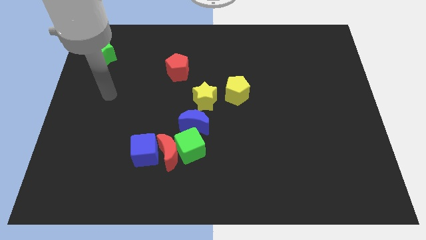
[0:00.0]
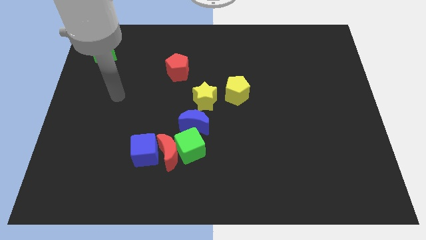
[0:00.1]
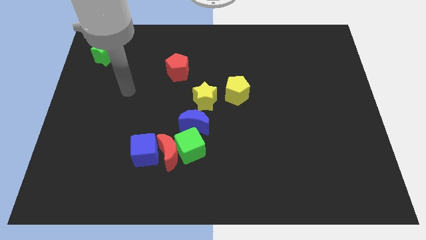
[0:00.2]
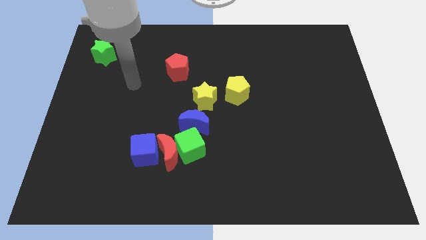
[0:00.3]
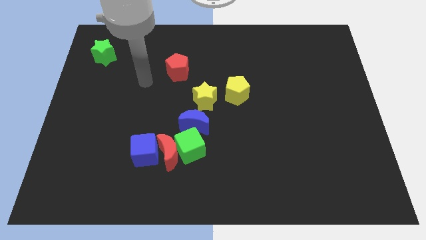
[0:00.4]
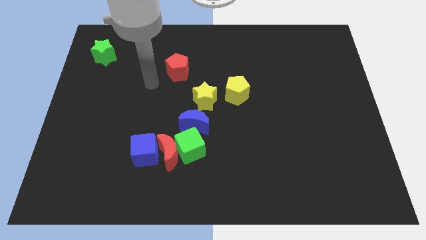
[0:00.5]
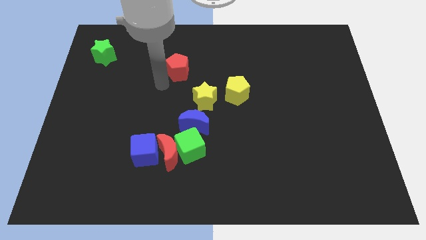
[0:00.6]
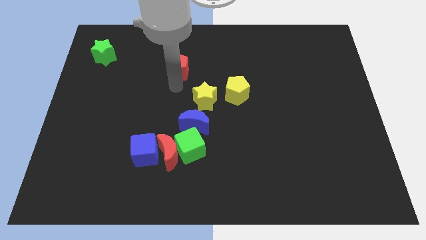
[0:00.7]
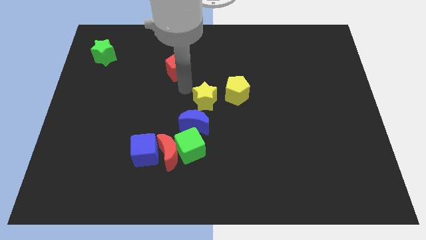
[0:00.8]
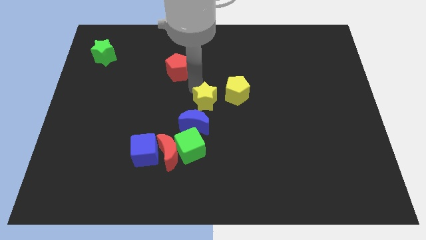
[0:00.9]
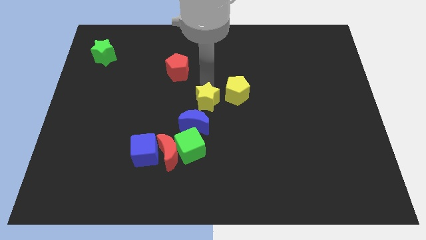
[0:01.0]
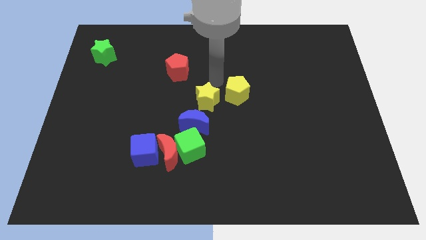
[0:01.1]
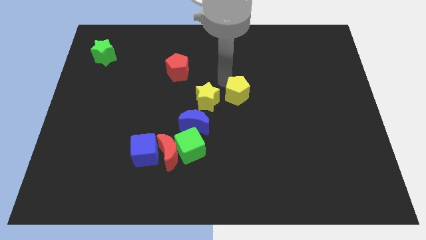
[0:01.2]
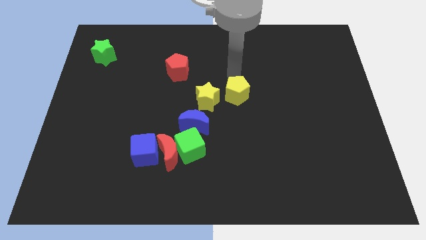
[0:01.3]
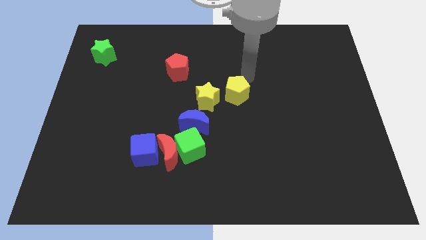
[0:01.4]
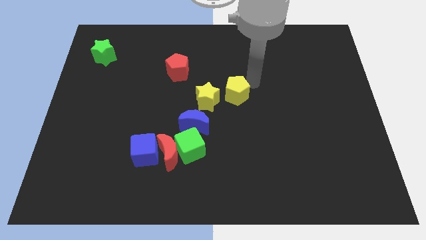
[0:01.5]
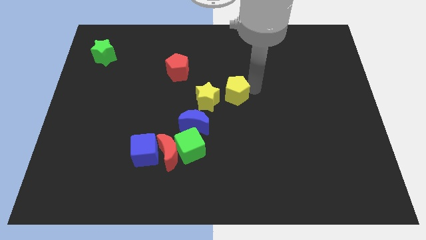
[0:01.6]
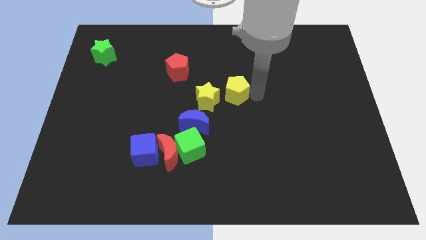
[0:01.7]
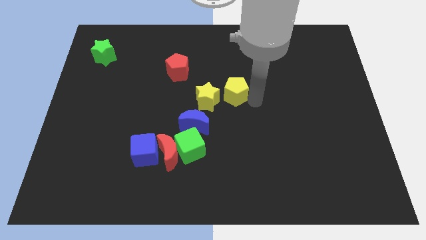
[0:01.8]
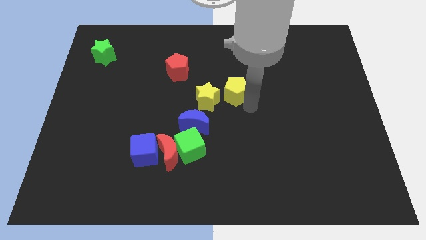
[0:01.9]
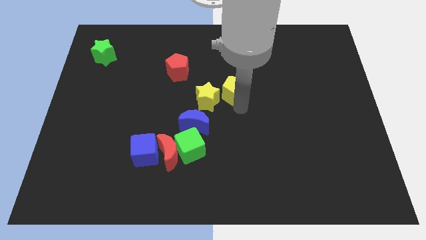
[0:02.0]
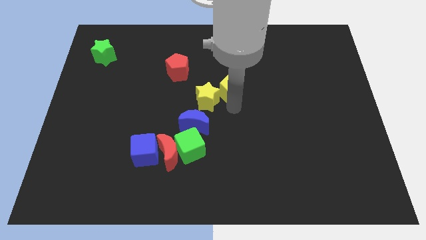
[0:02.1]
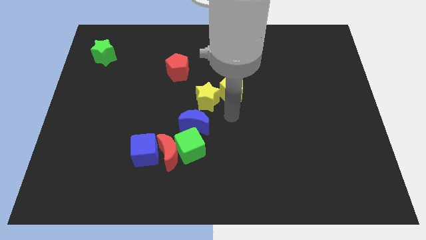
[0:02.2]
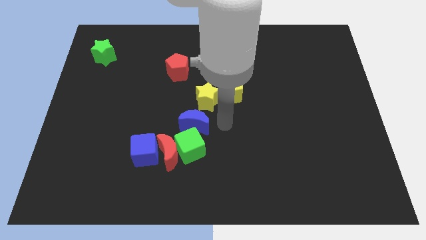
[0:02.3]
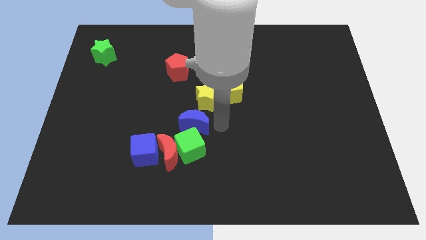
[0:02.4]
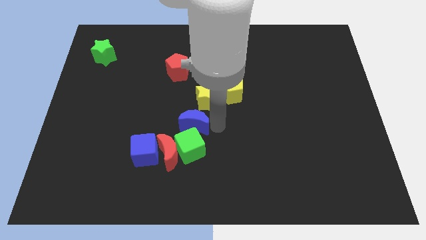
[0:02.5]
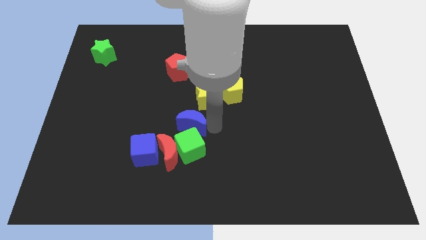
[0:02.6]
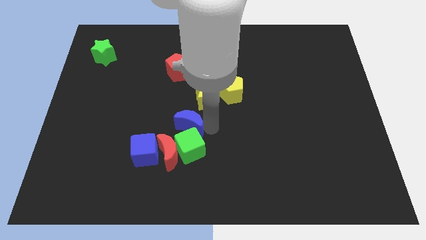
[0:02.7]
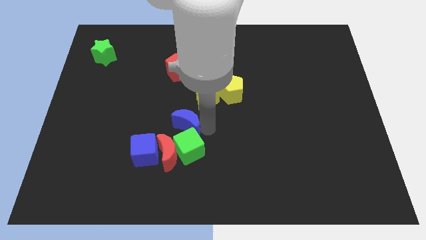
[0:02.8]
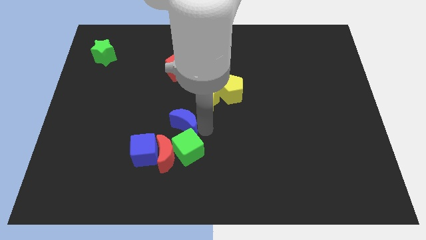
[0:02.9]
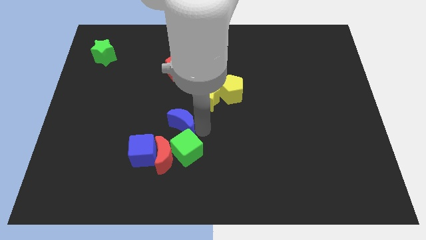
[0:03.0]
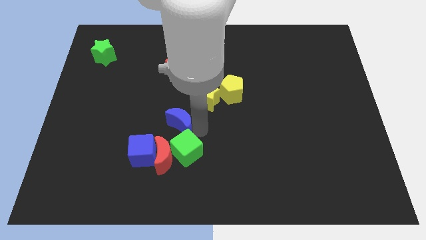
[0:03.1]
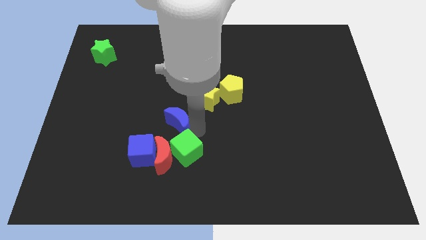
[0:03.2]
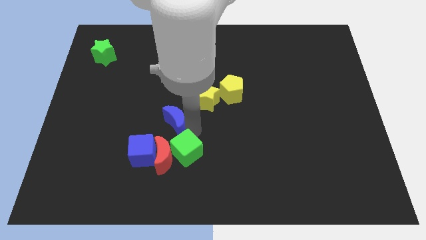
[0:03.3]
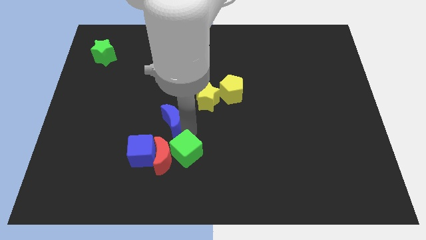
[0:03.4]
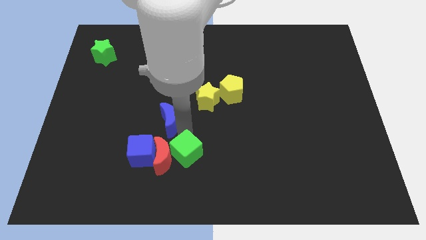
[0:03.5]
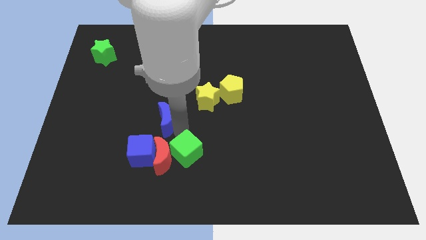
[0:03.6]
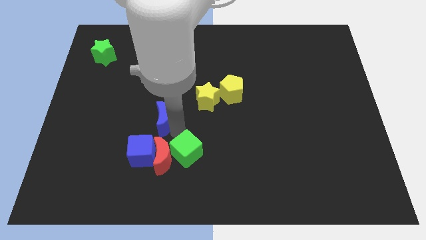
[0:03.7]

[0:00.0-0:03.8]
push the blue moon slightly left

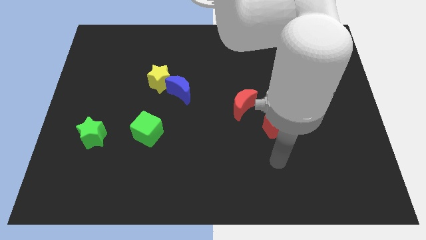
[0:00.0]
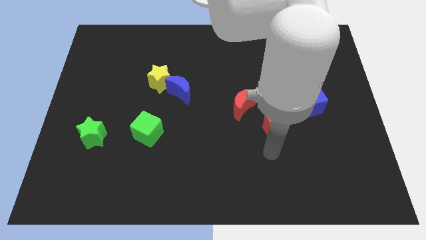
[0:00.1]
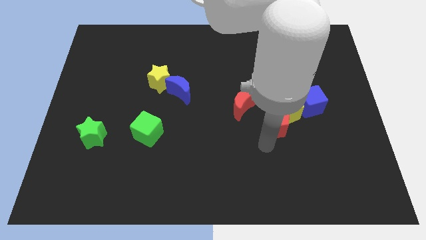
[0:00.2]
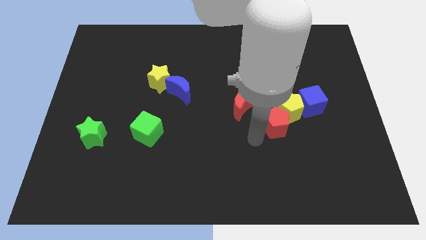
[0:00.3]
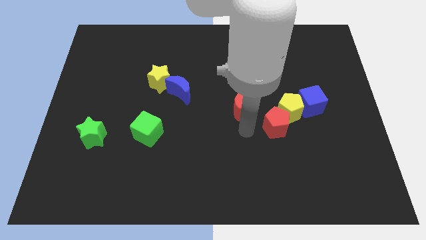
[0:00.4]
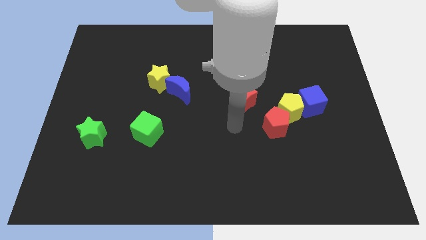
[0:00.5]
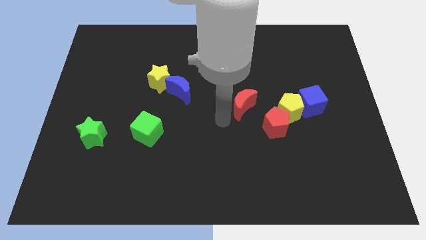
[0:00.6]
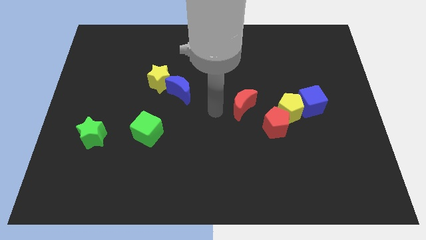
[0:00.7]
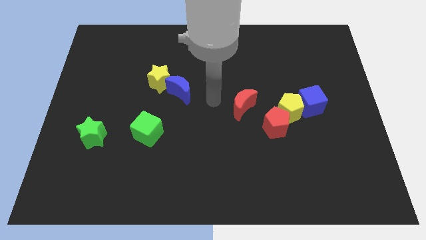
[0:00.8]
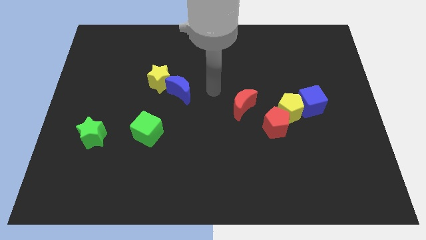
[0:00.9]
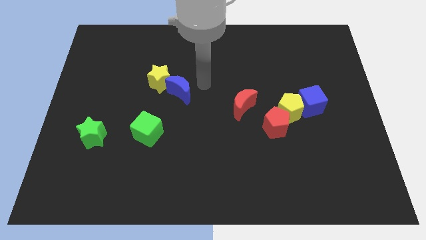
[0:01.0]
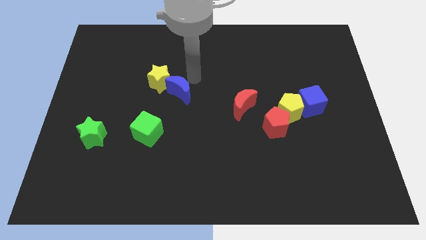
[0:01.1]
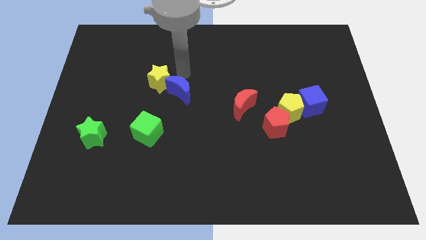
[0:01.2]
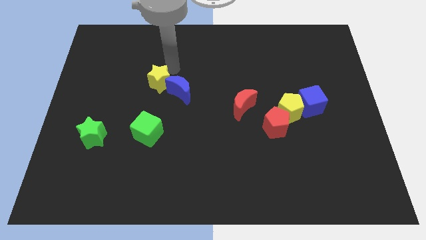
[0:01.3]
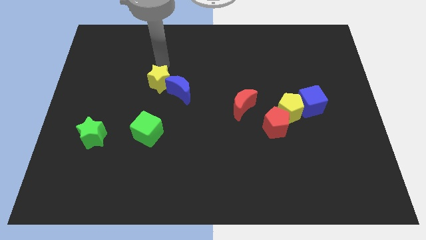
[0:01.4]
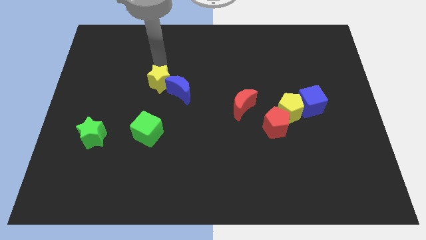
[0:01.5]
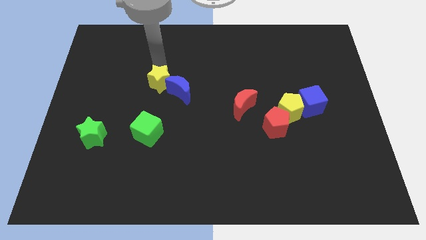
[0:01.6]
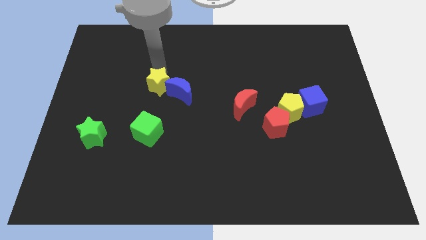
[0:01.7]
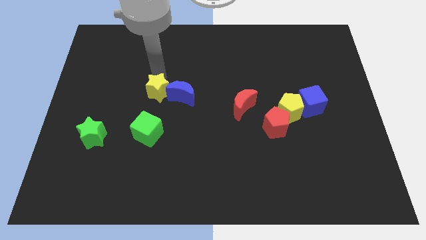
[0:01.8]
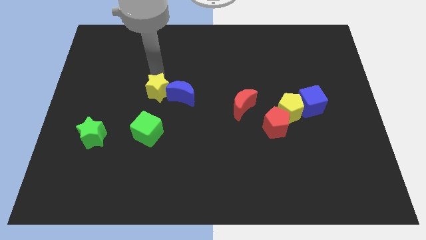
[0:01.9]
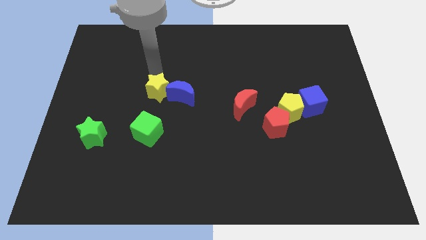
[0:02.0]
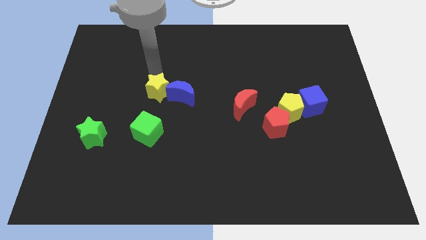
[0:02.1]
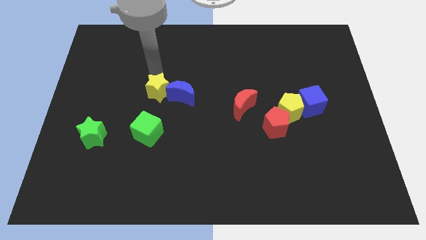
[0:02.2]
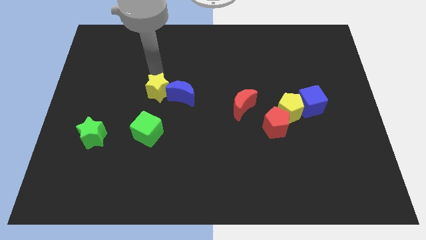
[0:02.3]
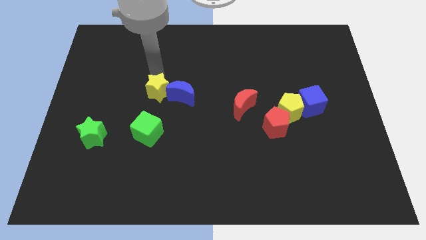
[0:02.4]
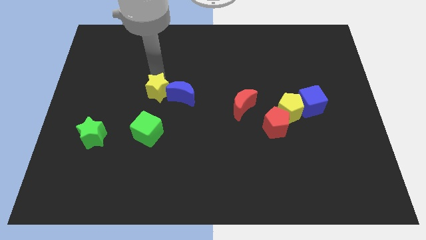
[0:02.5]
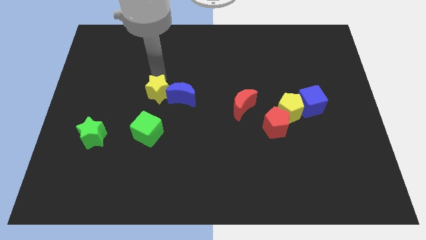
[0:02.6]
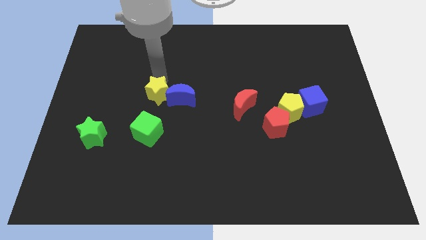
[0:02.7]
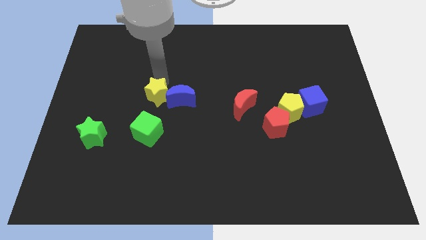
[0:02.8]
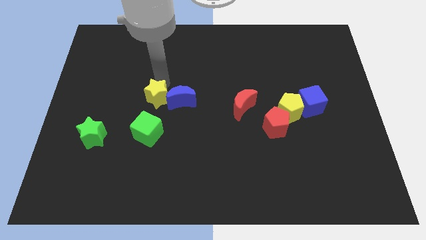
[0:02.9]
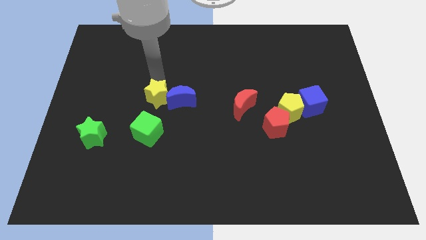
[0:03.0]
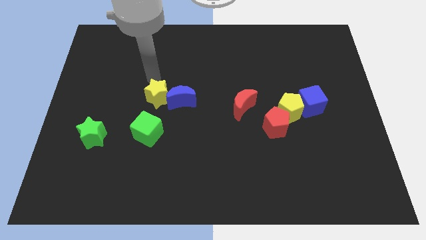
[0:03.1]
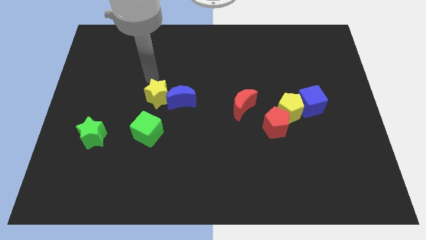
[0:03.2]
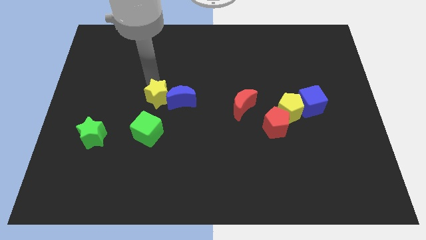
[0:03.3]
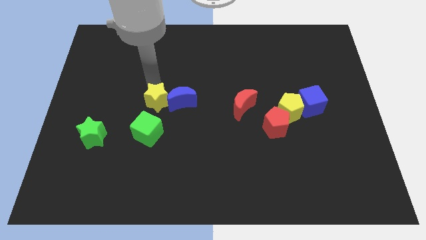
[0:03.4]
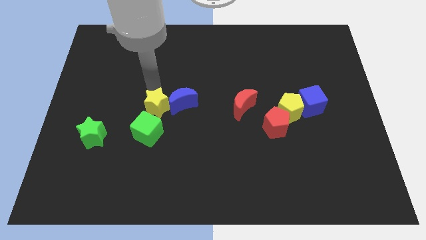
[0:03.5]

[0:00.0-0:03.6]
slightly push the yellow star down

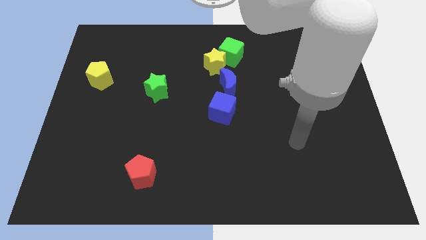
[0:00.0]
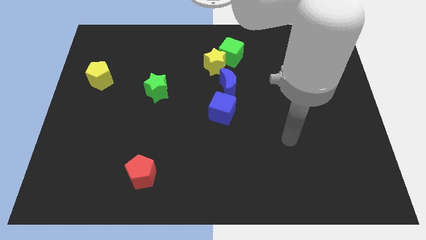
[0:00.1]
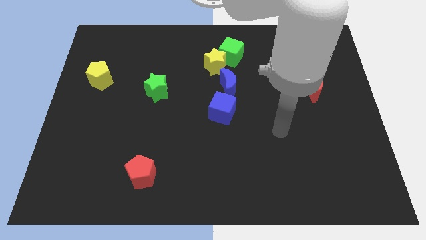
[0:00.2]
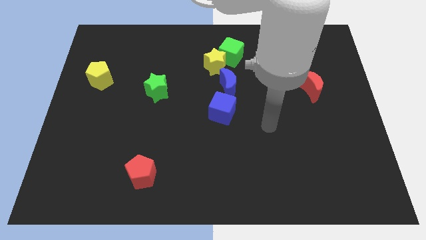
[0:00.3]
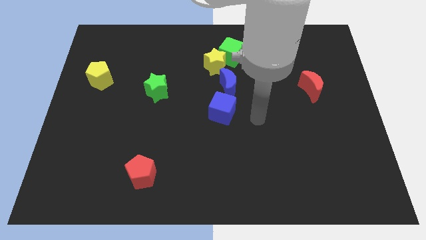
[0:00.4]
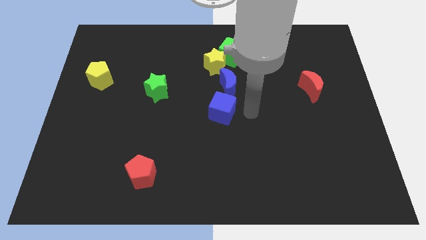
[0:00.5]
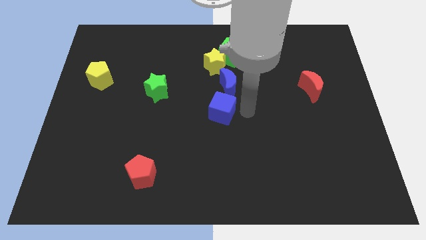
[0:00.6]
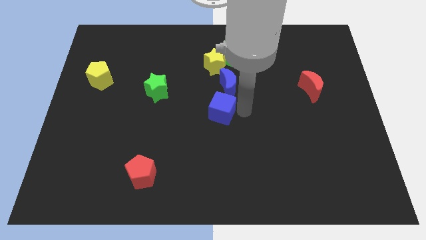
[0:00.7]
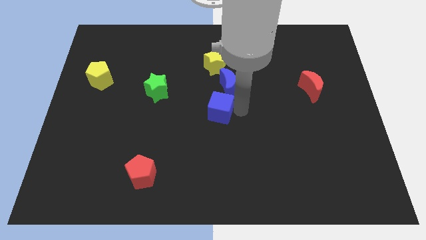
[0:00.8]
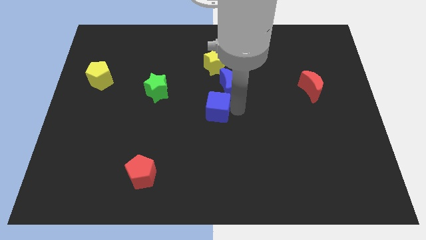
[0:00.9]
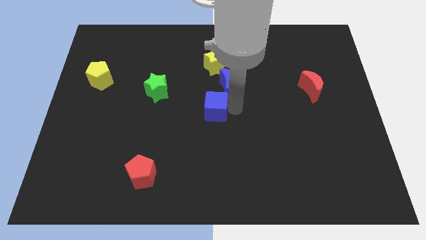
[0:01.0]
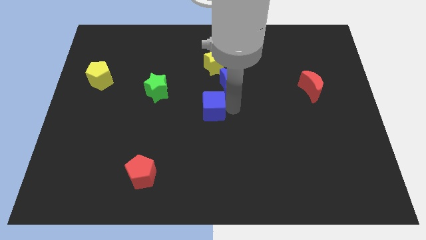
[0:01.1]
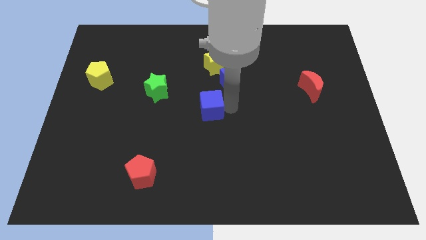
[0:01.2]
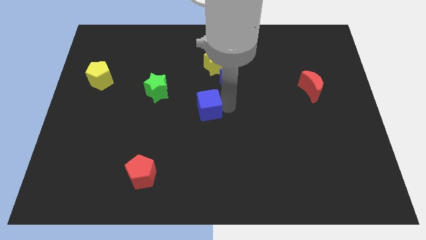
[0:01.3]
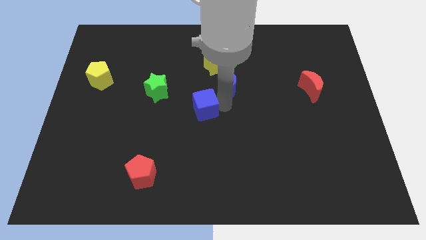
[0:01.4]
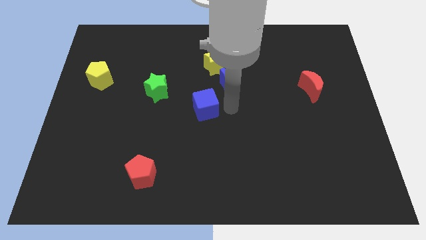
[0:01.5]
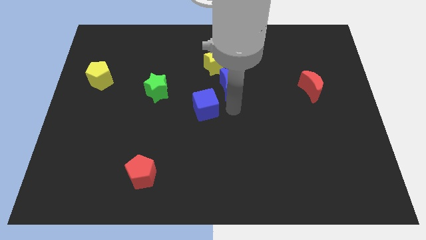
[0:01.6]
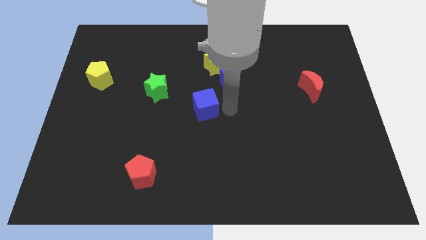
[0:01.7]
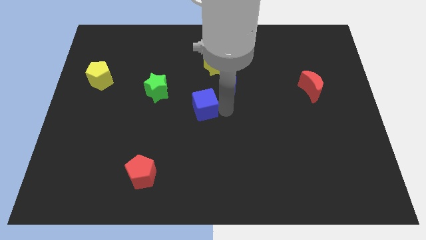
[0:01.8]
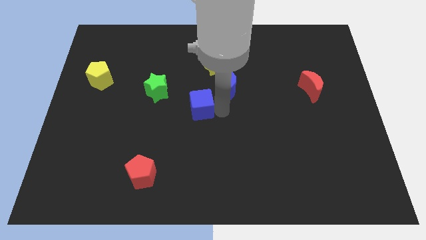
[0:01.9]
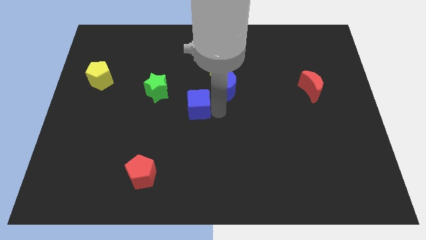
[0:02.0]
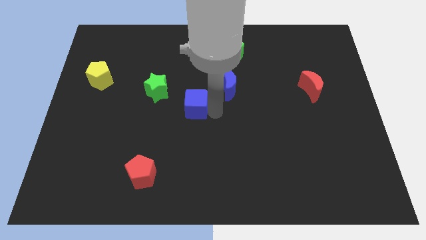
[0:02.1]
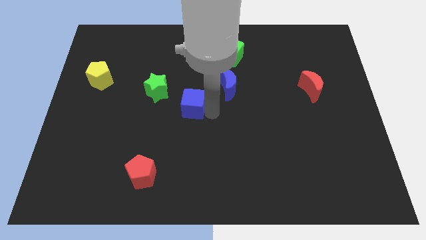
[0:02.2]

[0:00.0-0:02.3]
push the blue cube a little to the left
